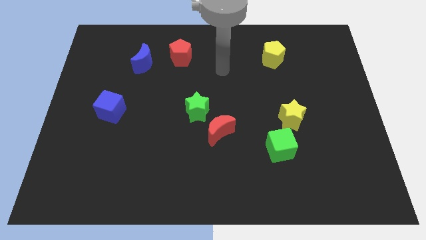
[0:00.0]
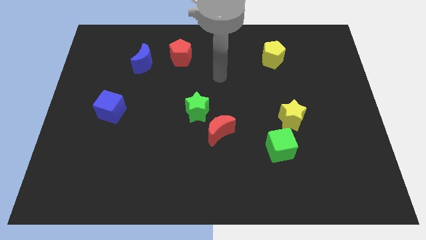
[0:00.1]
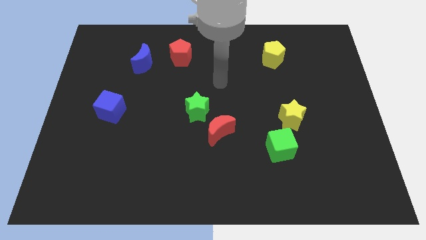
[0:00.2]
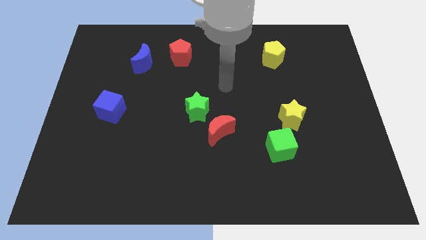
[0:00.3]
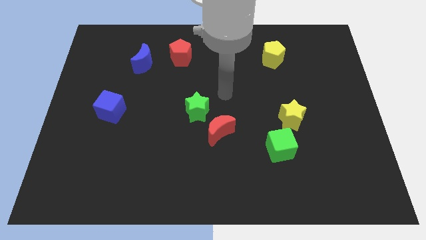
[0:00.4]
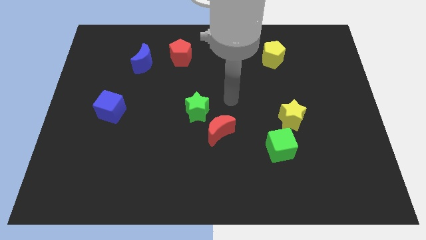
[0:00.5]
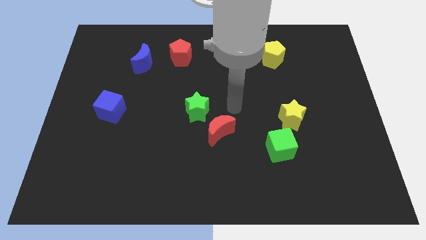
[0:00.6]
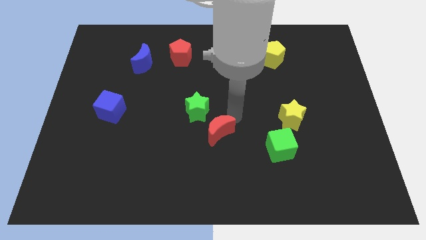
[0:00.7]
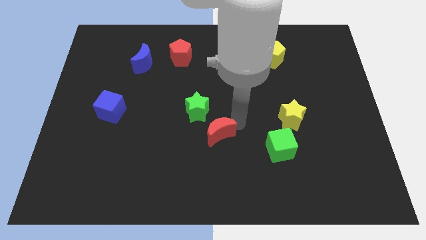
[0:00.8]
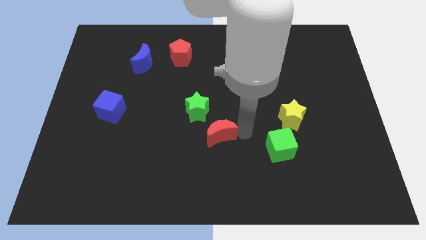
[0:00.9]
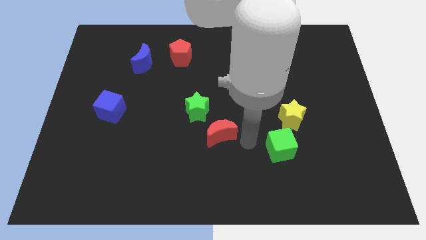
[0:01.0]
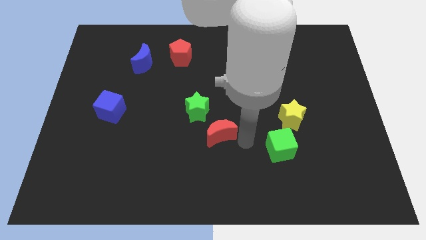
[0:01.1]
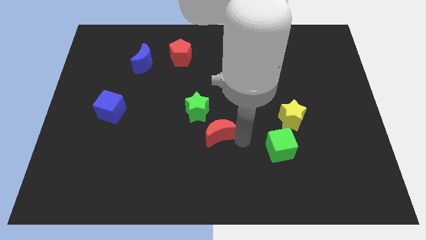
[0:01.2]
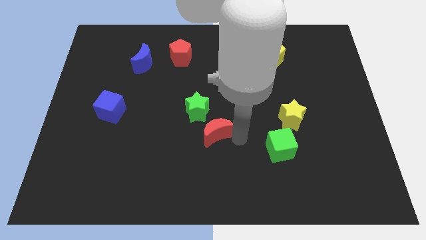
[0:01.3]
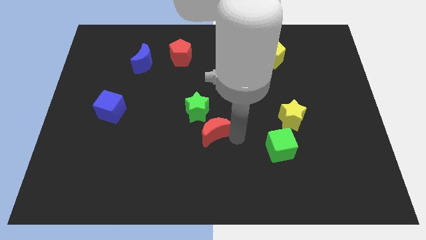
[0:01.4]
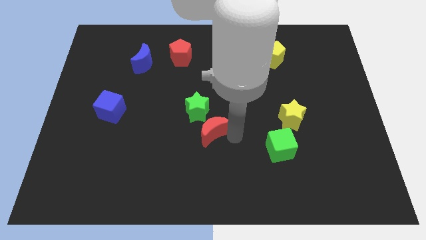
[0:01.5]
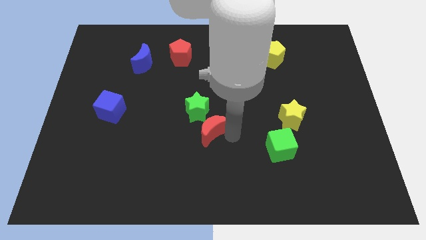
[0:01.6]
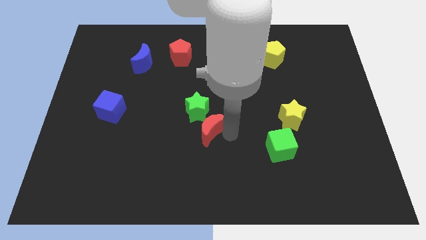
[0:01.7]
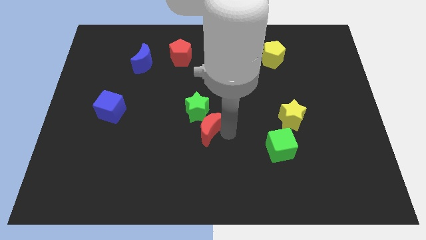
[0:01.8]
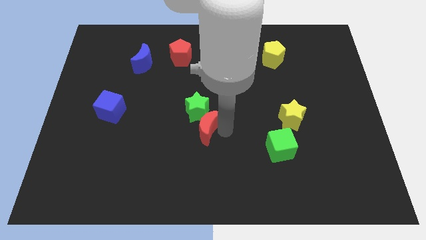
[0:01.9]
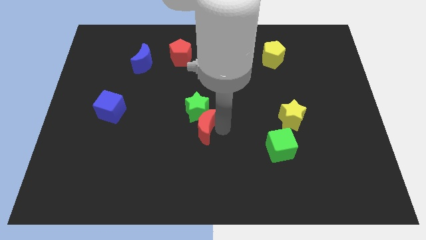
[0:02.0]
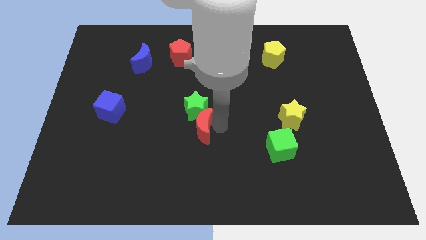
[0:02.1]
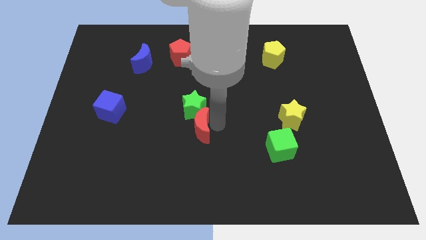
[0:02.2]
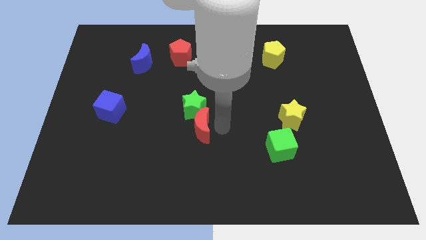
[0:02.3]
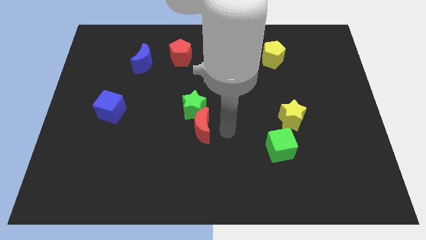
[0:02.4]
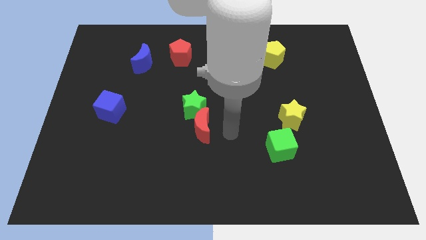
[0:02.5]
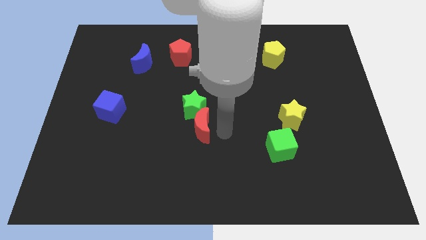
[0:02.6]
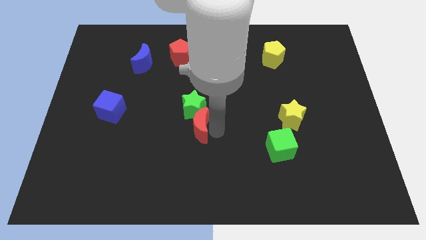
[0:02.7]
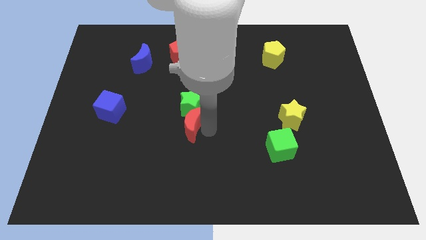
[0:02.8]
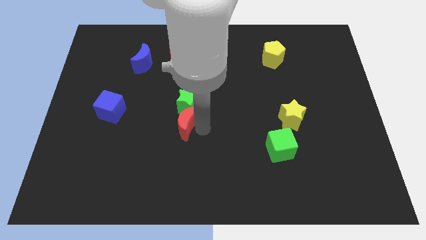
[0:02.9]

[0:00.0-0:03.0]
move the red moon to the left slightly

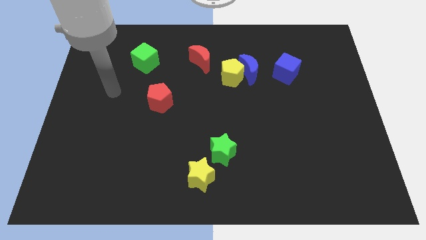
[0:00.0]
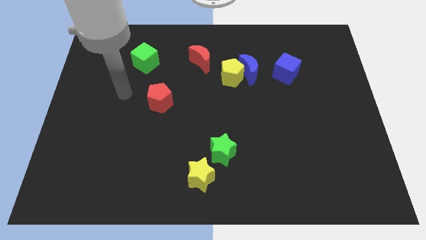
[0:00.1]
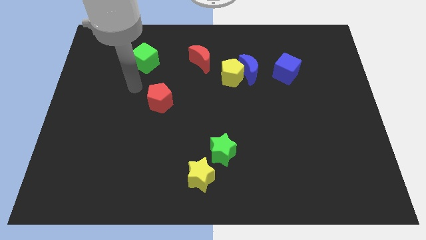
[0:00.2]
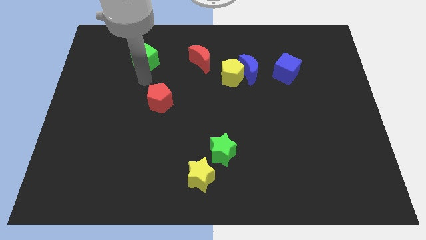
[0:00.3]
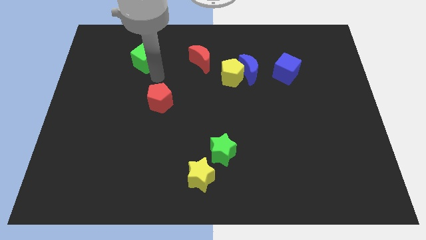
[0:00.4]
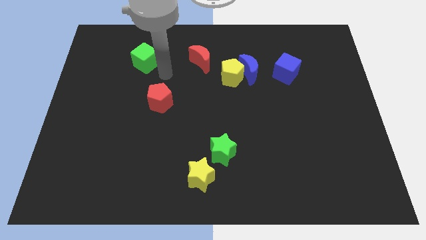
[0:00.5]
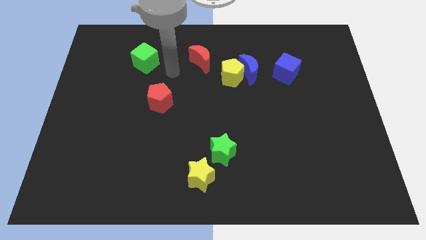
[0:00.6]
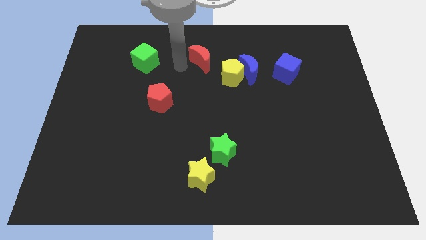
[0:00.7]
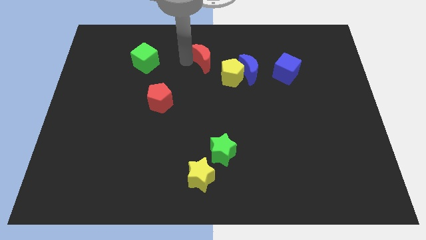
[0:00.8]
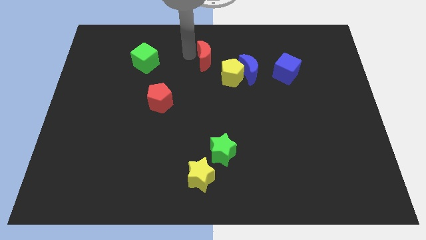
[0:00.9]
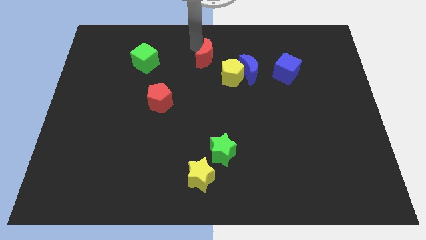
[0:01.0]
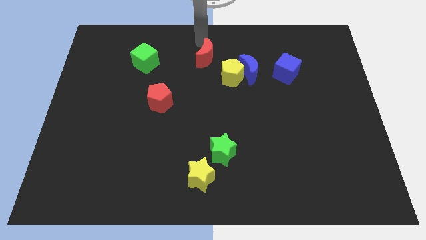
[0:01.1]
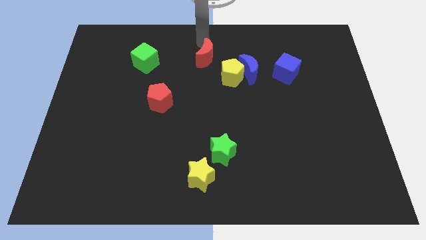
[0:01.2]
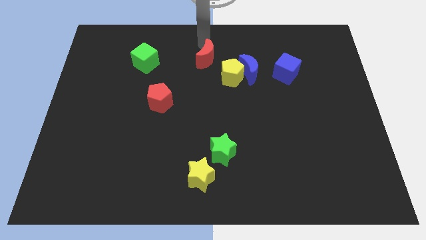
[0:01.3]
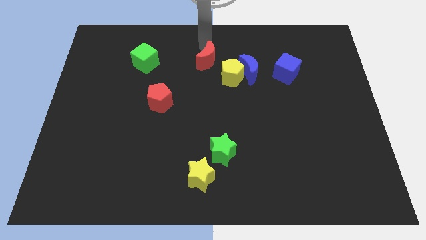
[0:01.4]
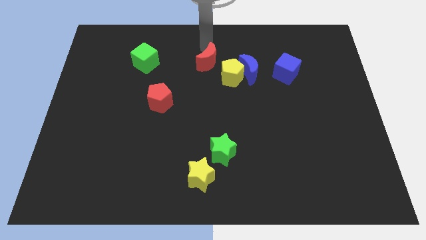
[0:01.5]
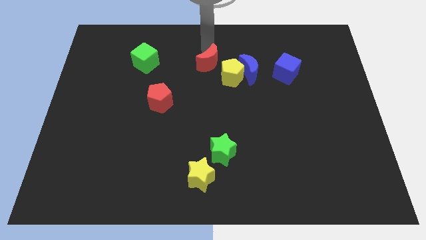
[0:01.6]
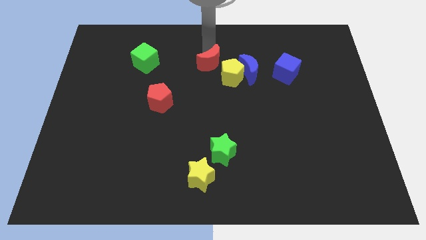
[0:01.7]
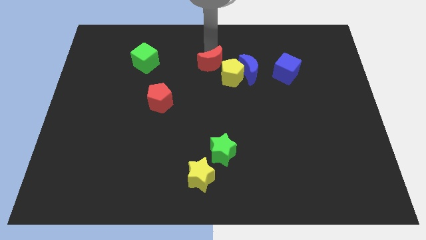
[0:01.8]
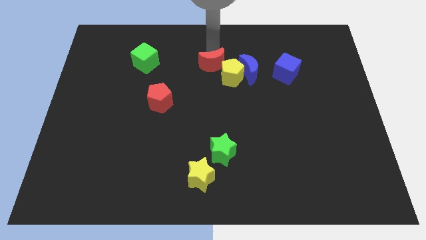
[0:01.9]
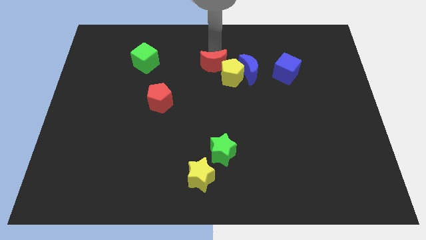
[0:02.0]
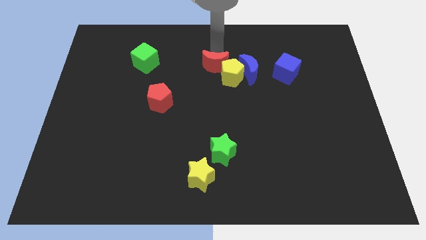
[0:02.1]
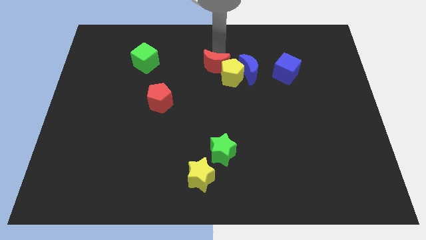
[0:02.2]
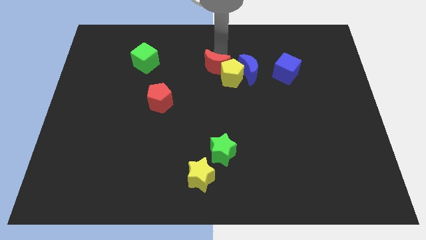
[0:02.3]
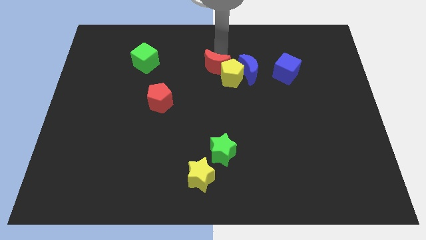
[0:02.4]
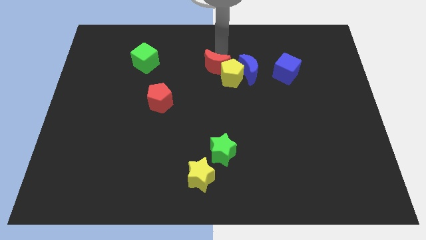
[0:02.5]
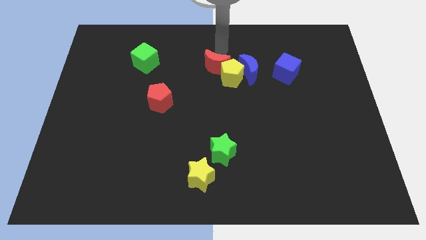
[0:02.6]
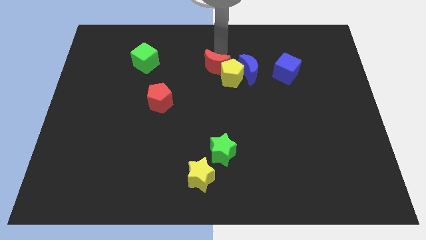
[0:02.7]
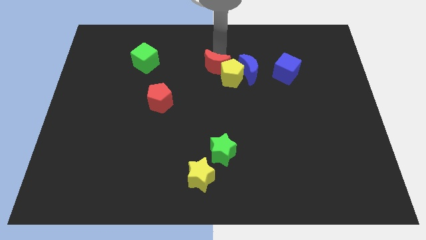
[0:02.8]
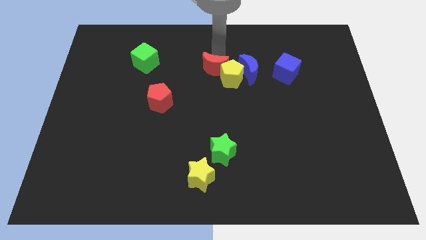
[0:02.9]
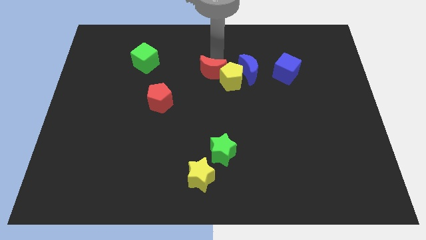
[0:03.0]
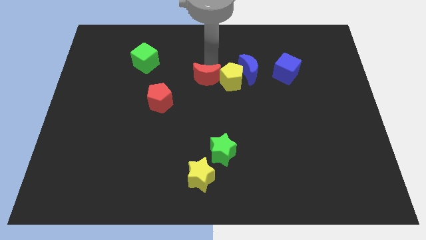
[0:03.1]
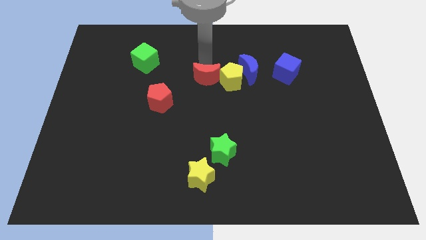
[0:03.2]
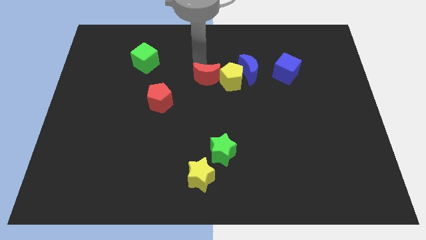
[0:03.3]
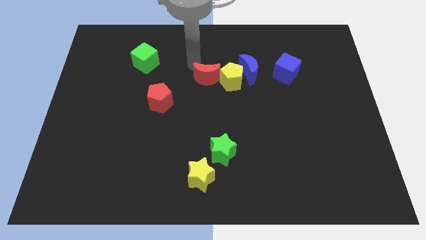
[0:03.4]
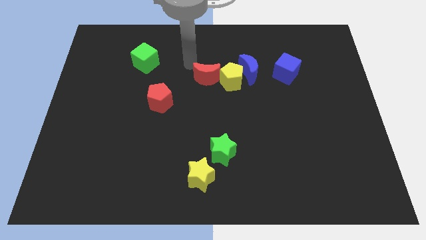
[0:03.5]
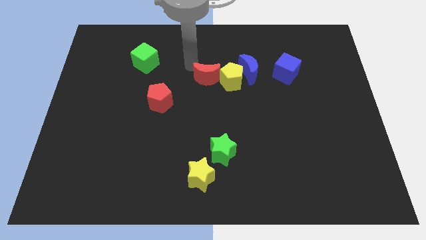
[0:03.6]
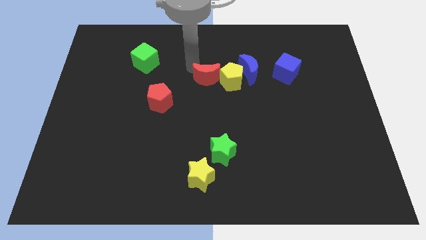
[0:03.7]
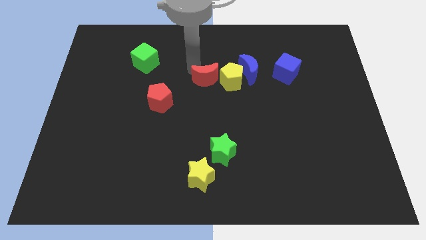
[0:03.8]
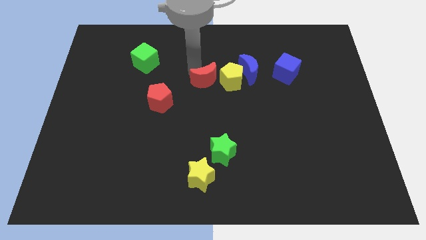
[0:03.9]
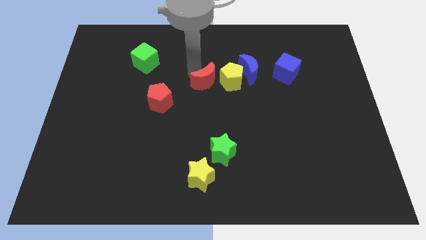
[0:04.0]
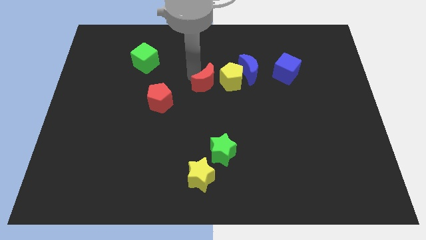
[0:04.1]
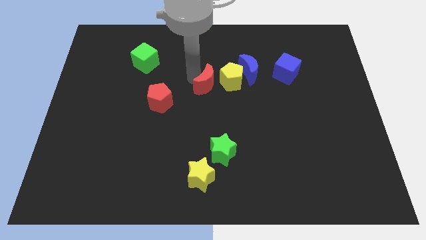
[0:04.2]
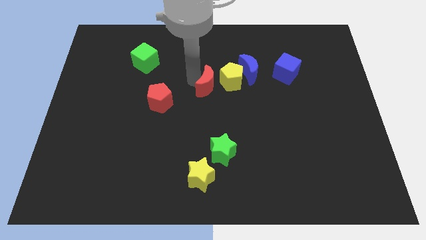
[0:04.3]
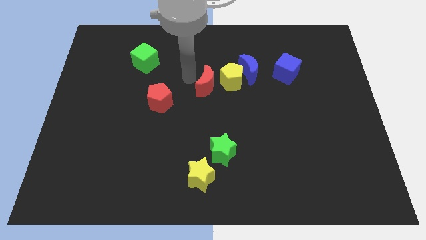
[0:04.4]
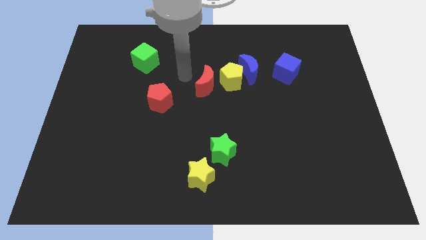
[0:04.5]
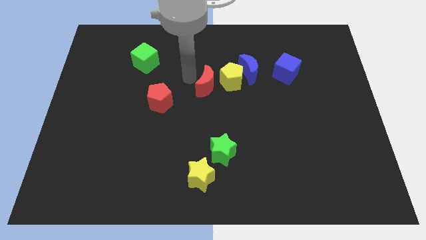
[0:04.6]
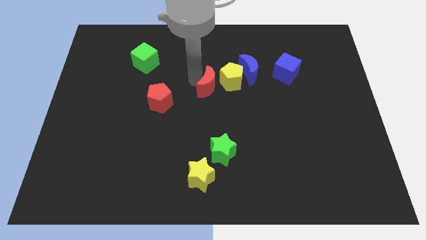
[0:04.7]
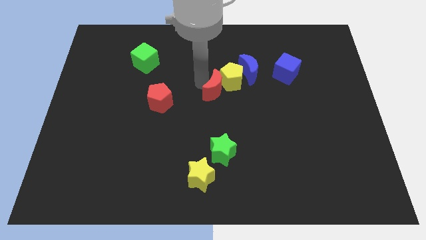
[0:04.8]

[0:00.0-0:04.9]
slightly slide the red moon down and right
